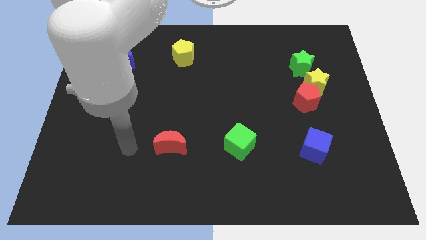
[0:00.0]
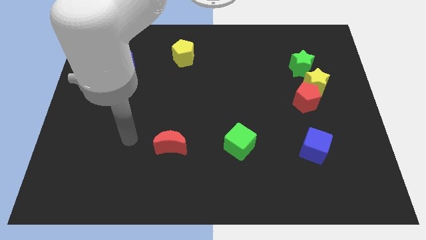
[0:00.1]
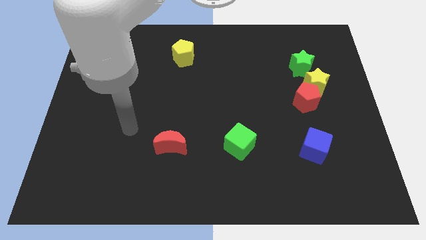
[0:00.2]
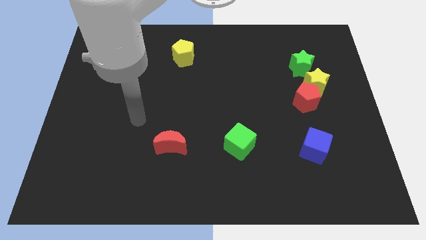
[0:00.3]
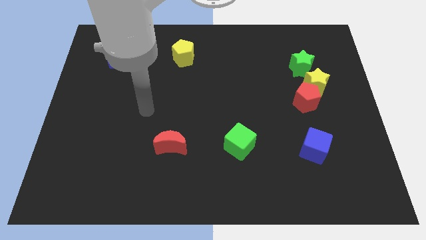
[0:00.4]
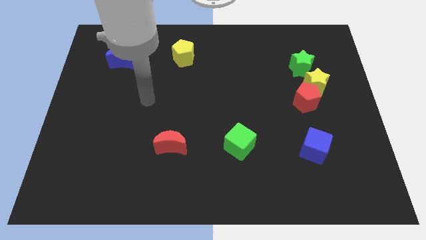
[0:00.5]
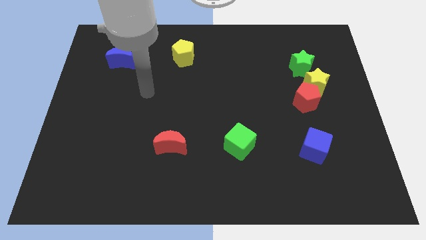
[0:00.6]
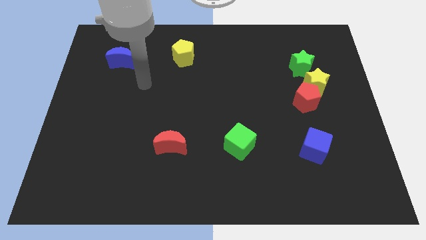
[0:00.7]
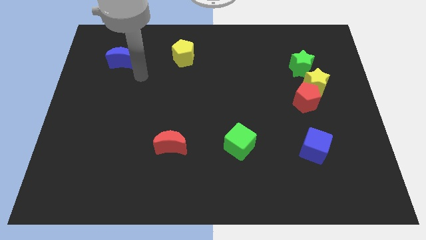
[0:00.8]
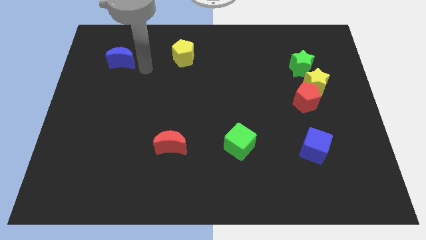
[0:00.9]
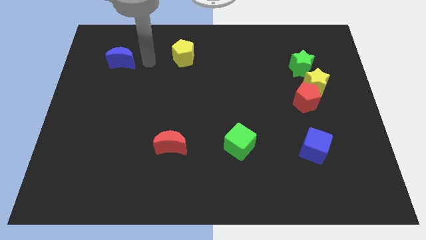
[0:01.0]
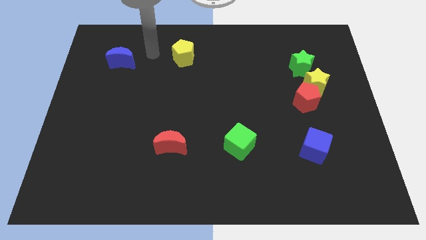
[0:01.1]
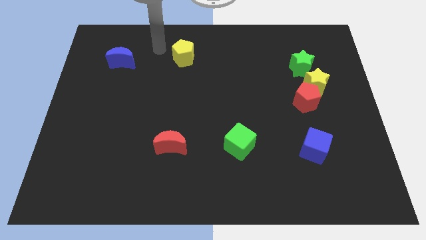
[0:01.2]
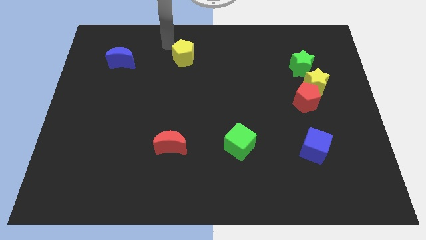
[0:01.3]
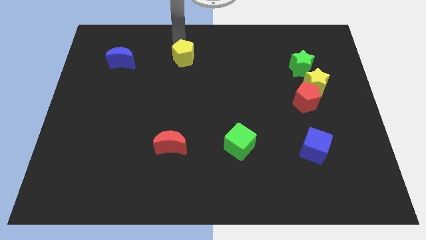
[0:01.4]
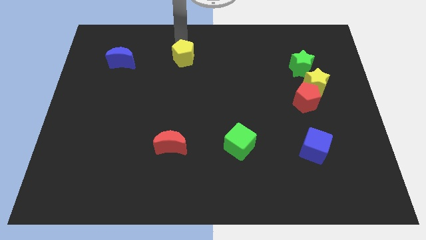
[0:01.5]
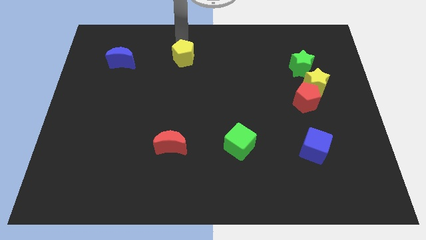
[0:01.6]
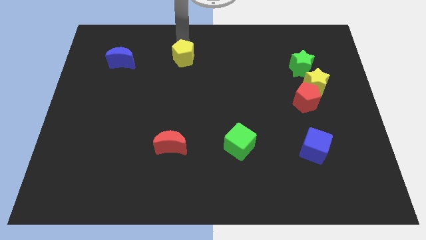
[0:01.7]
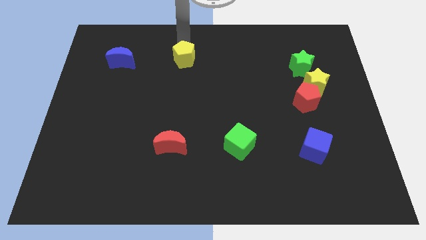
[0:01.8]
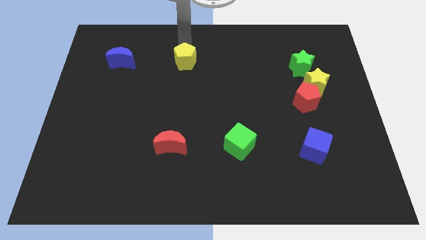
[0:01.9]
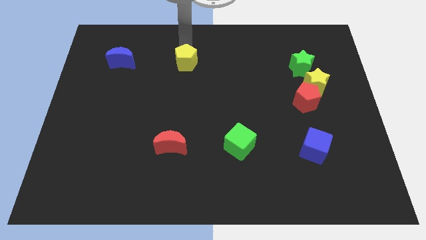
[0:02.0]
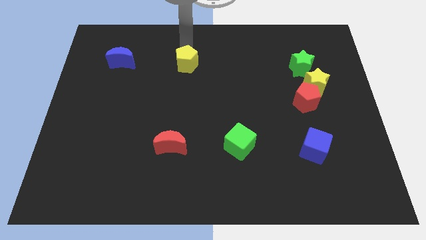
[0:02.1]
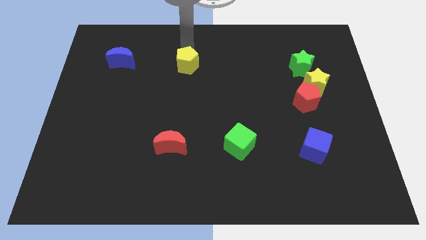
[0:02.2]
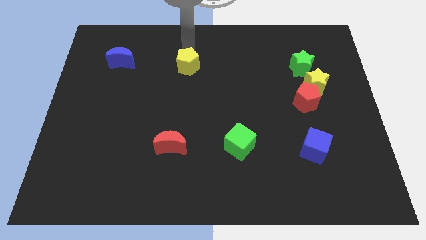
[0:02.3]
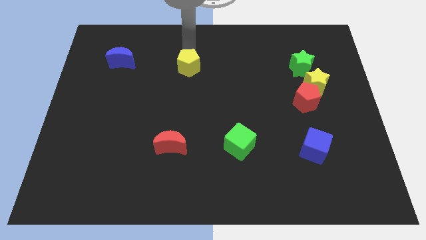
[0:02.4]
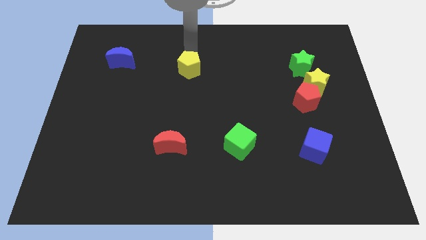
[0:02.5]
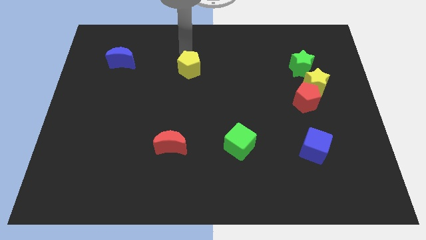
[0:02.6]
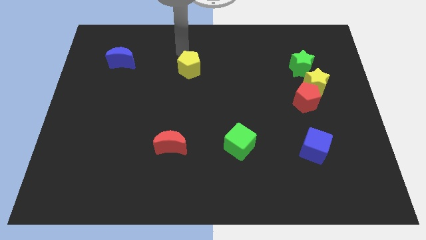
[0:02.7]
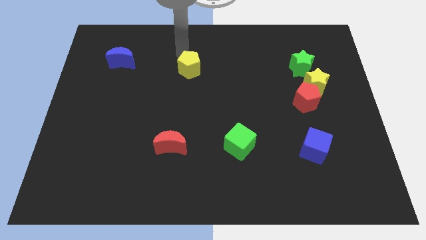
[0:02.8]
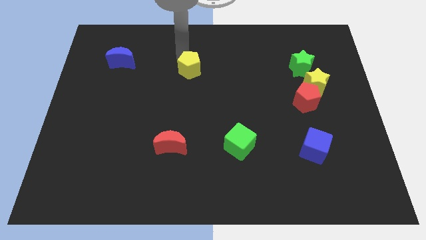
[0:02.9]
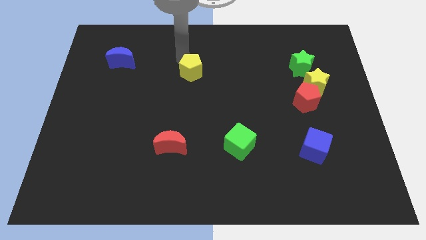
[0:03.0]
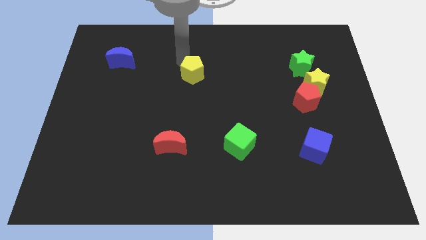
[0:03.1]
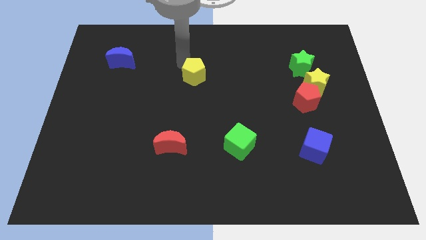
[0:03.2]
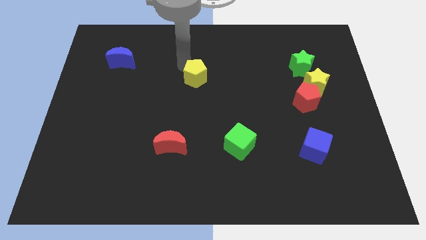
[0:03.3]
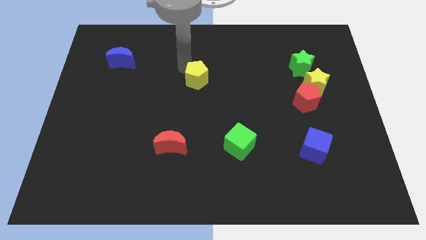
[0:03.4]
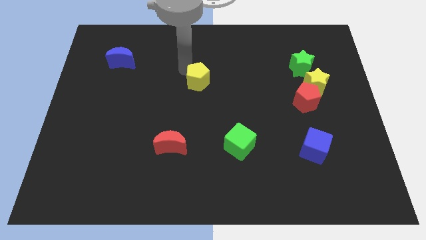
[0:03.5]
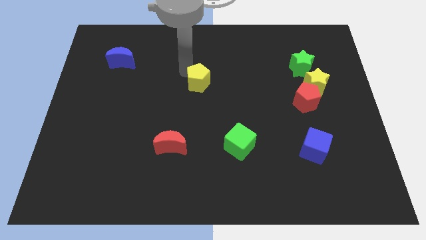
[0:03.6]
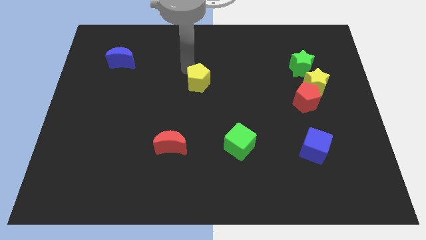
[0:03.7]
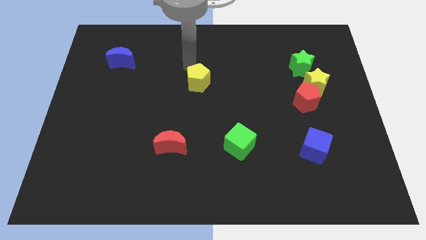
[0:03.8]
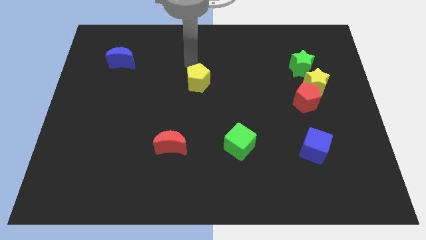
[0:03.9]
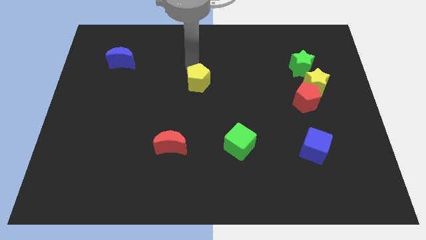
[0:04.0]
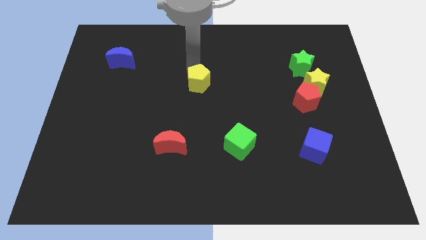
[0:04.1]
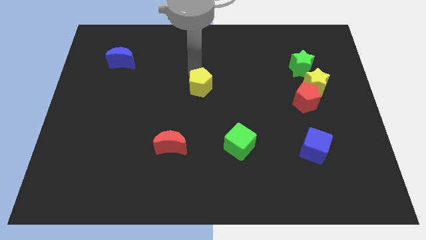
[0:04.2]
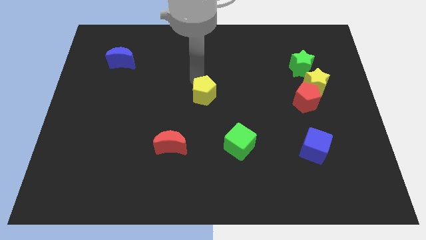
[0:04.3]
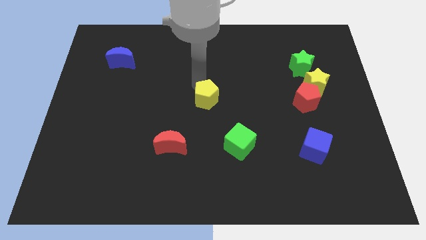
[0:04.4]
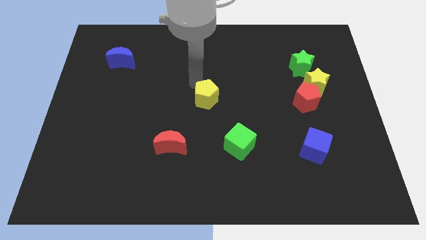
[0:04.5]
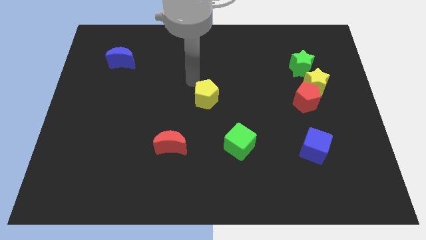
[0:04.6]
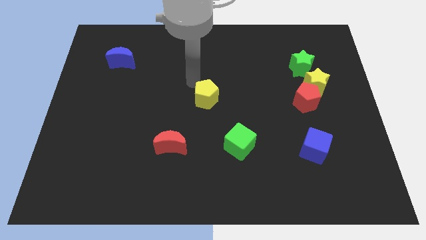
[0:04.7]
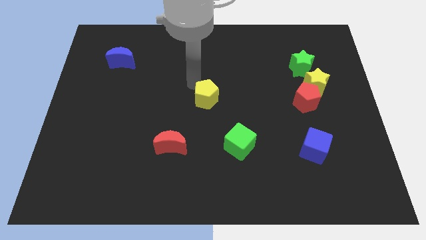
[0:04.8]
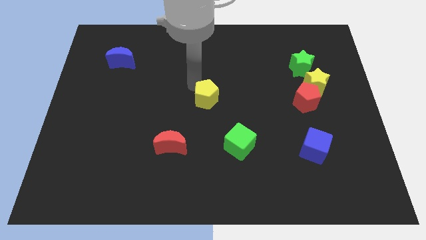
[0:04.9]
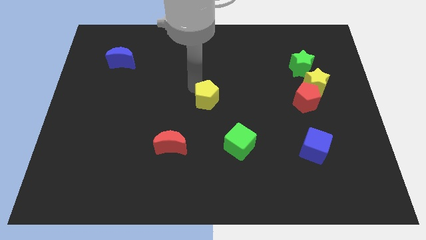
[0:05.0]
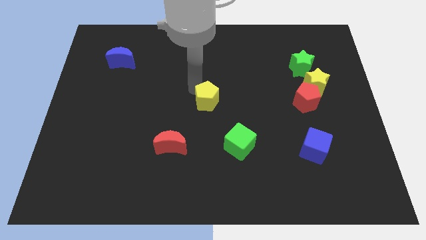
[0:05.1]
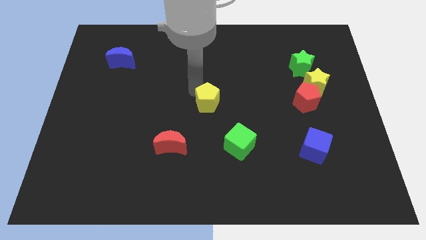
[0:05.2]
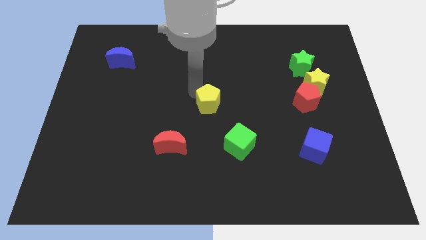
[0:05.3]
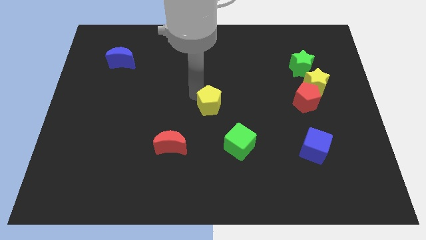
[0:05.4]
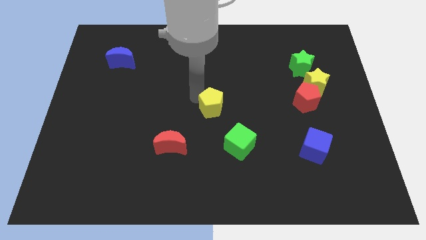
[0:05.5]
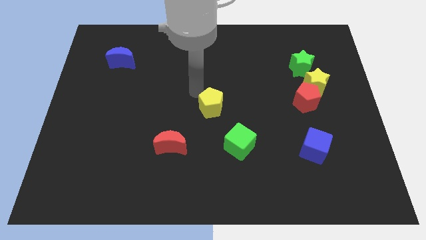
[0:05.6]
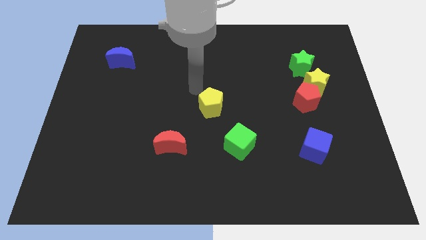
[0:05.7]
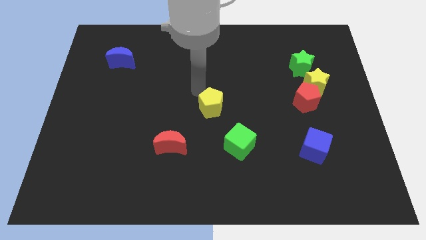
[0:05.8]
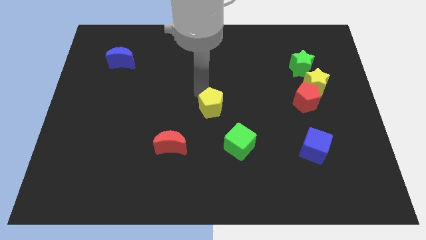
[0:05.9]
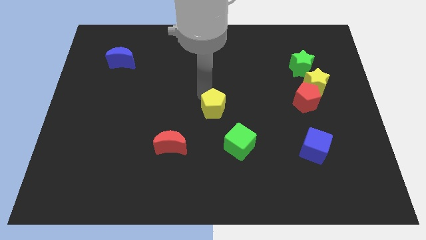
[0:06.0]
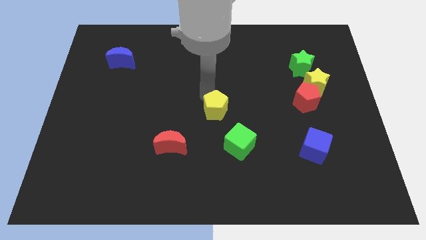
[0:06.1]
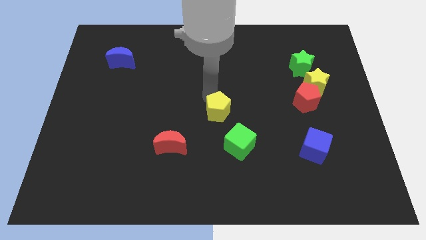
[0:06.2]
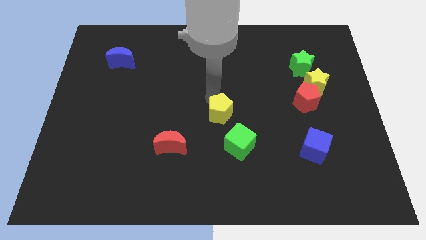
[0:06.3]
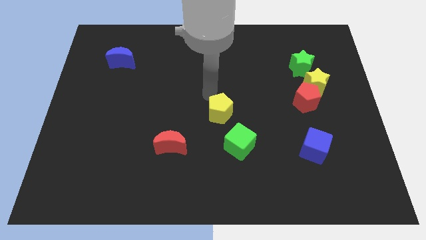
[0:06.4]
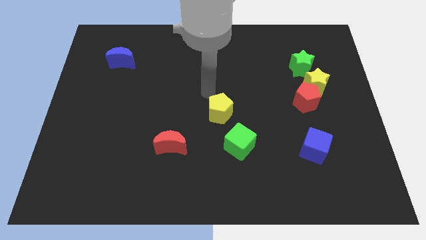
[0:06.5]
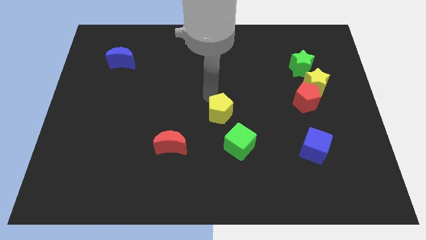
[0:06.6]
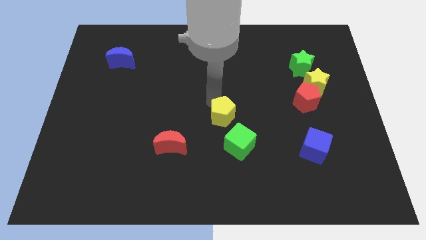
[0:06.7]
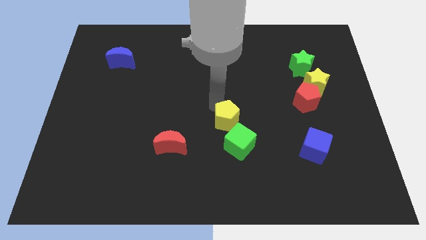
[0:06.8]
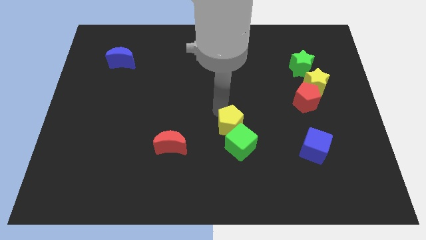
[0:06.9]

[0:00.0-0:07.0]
move the yellow pentagon next to the green cube
